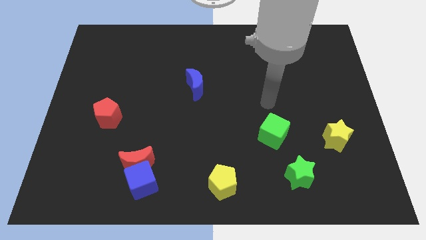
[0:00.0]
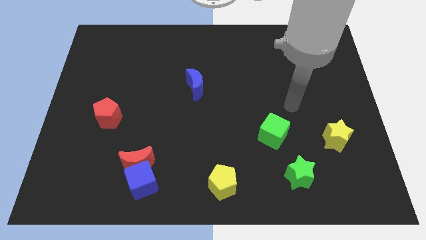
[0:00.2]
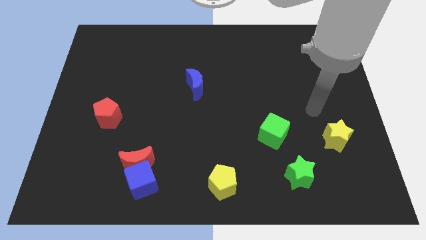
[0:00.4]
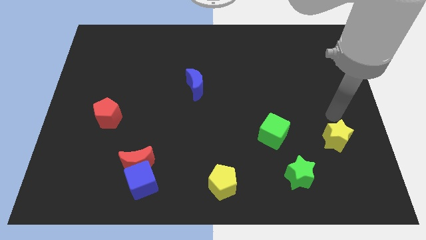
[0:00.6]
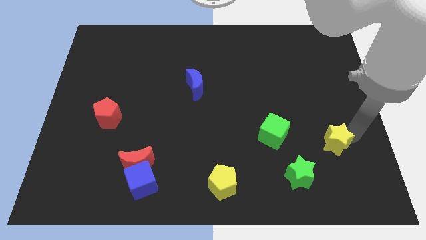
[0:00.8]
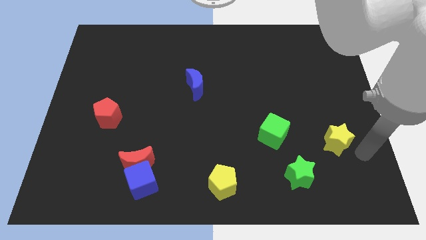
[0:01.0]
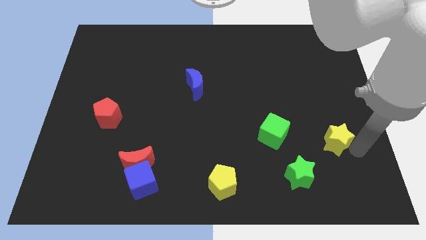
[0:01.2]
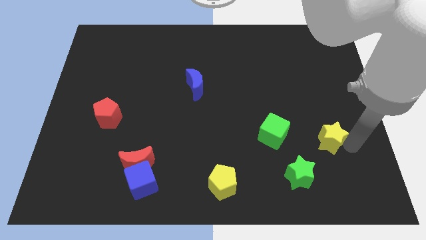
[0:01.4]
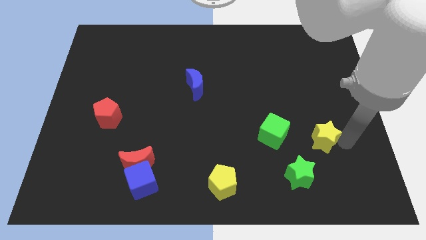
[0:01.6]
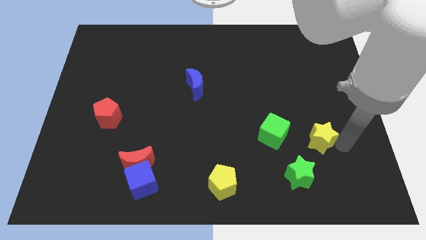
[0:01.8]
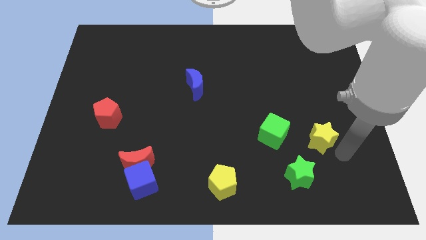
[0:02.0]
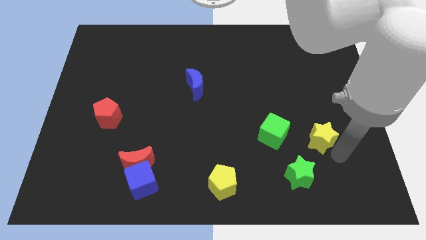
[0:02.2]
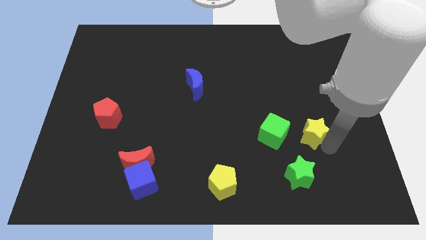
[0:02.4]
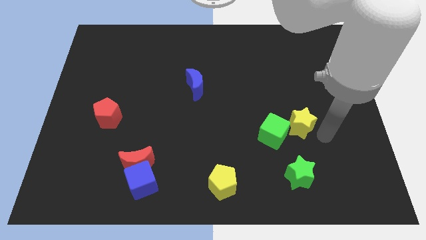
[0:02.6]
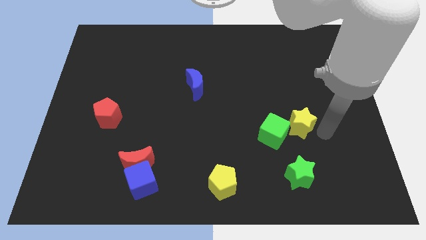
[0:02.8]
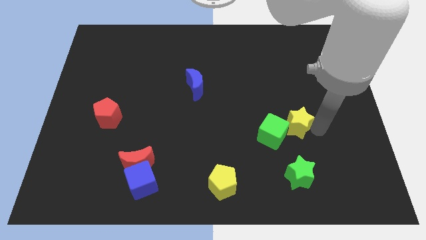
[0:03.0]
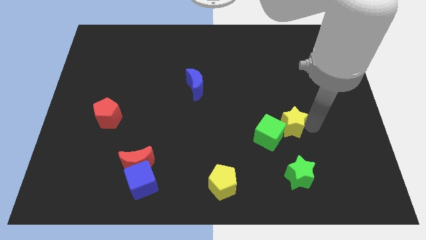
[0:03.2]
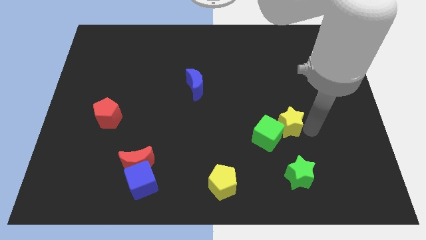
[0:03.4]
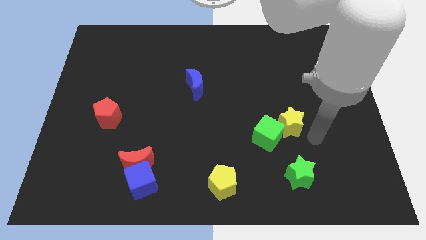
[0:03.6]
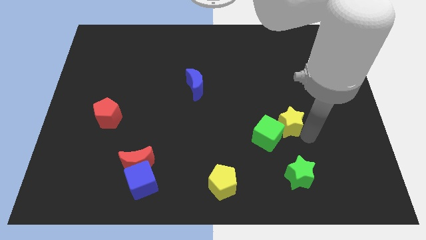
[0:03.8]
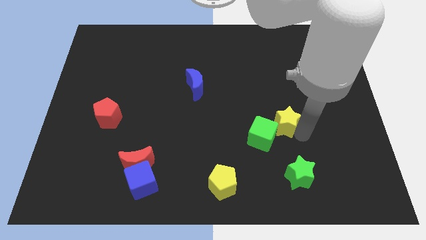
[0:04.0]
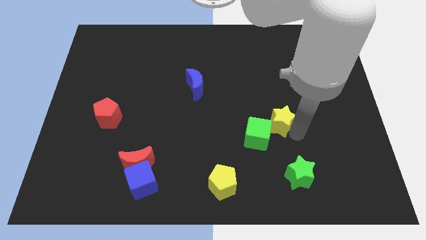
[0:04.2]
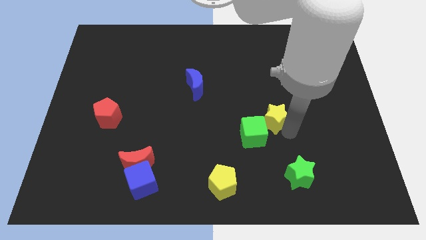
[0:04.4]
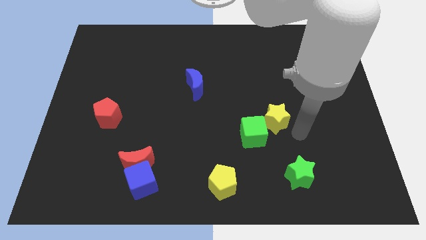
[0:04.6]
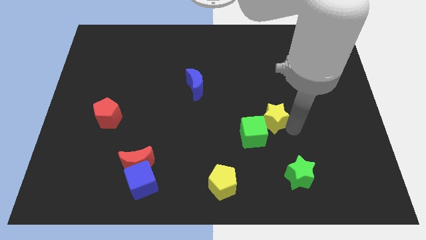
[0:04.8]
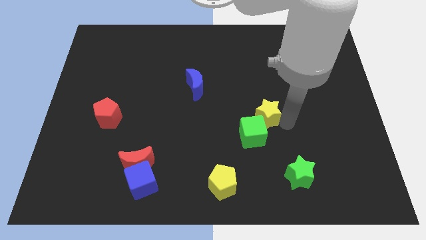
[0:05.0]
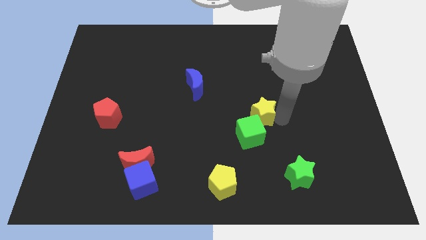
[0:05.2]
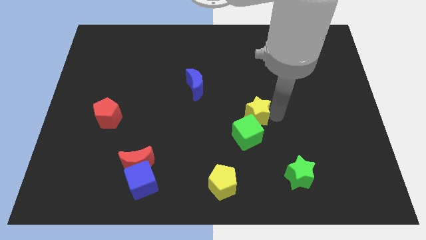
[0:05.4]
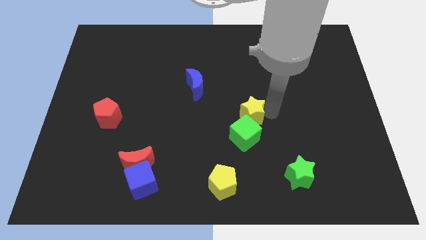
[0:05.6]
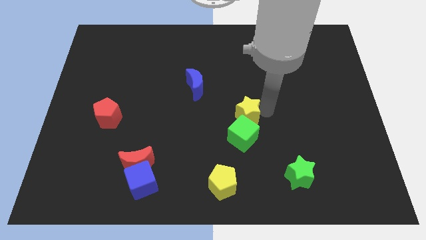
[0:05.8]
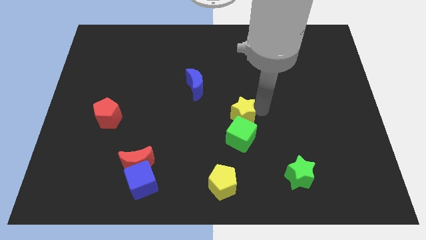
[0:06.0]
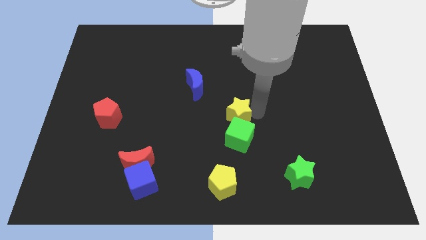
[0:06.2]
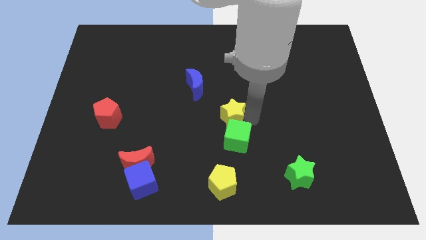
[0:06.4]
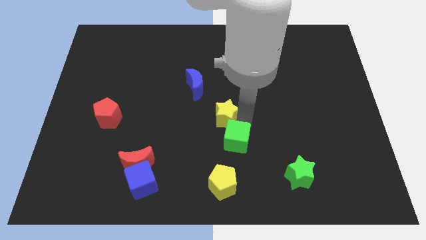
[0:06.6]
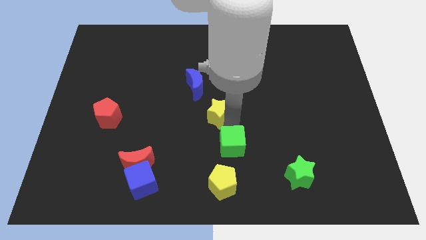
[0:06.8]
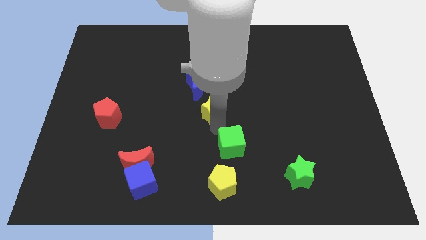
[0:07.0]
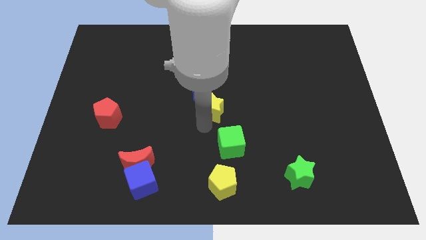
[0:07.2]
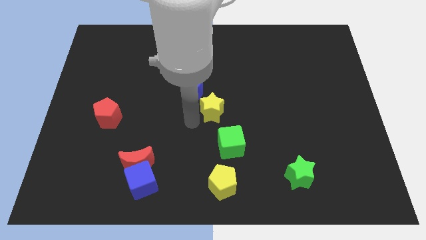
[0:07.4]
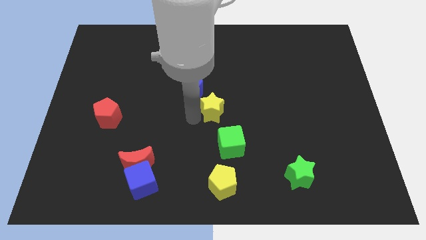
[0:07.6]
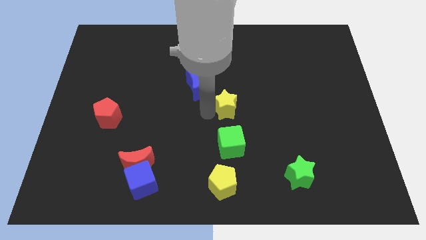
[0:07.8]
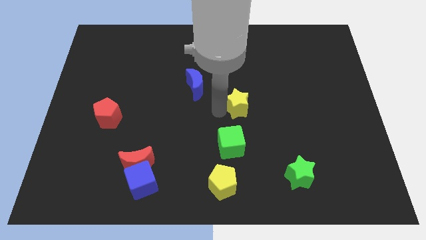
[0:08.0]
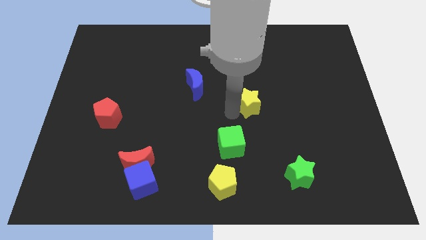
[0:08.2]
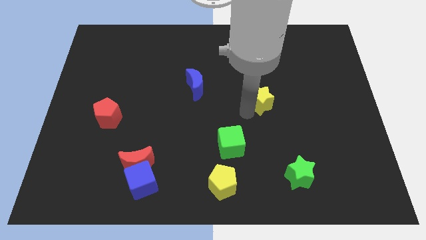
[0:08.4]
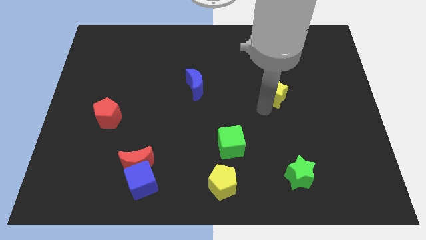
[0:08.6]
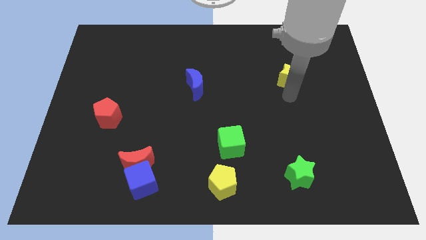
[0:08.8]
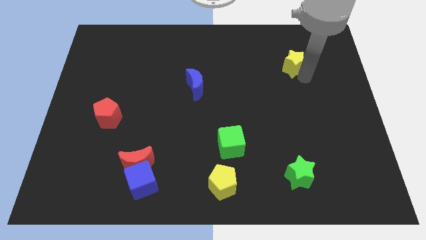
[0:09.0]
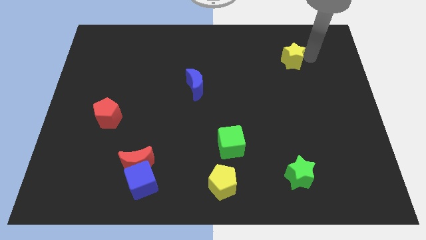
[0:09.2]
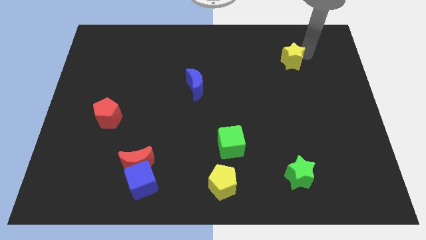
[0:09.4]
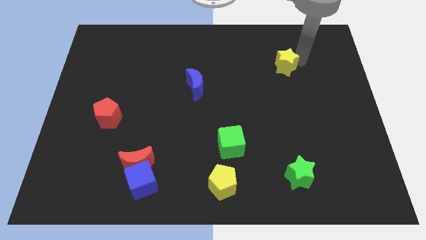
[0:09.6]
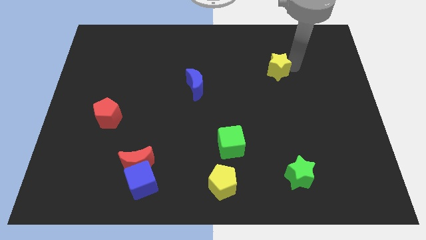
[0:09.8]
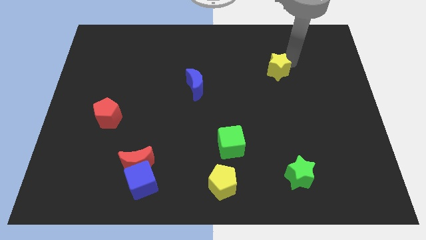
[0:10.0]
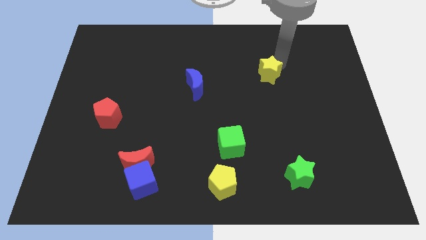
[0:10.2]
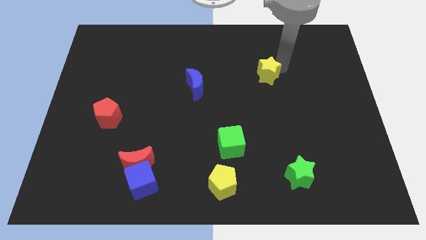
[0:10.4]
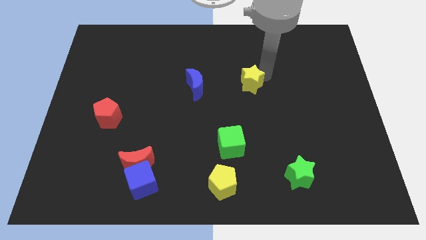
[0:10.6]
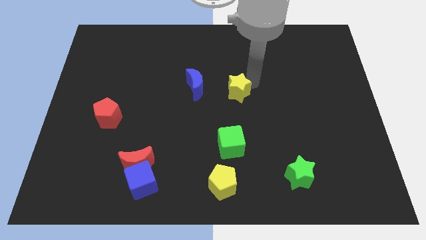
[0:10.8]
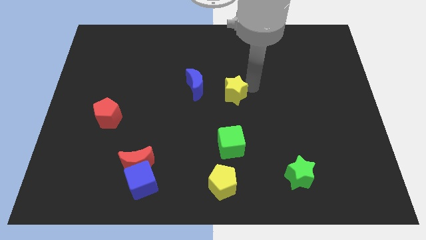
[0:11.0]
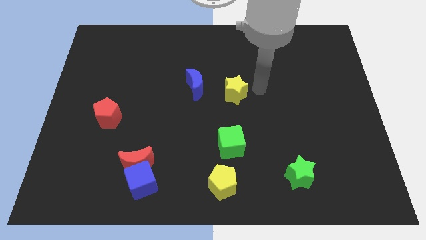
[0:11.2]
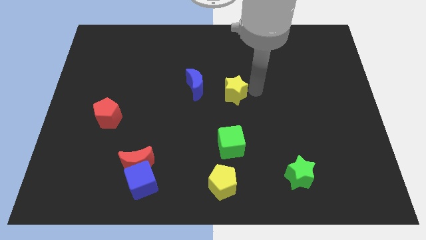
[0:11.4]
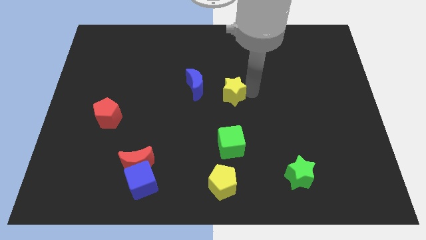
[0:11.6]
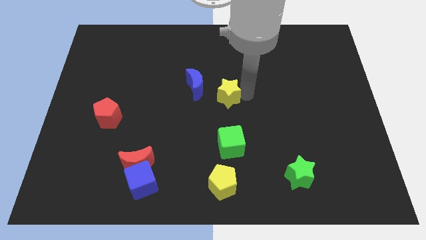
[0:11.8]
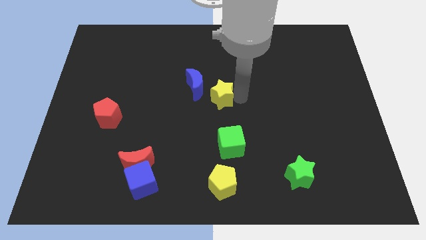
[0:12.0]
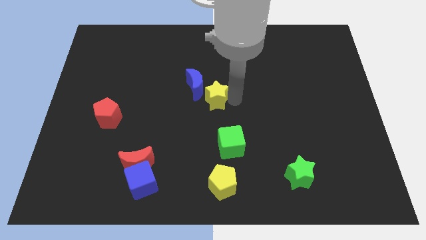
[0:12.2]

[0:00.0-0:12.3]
slide the yellow star next to the blue moon
